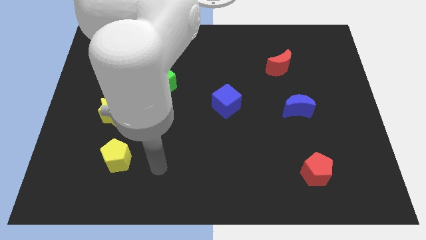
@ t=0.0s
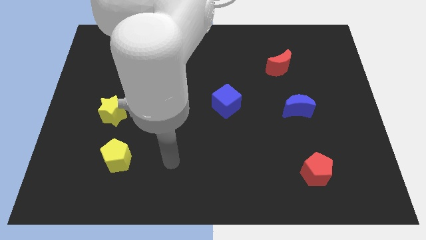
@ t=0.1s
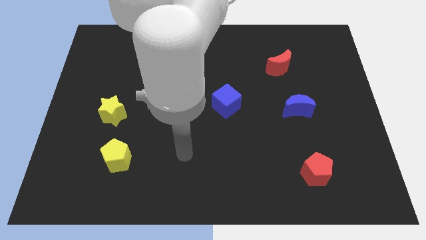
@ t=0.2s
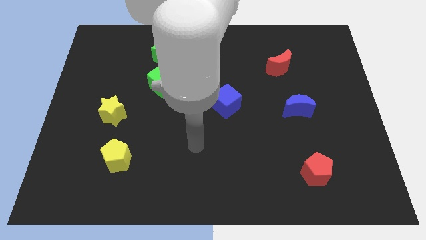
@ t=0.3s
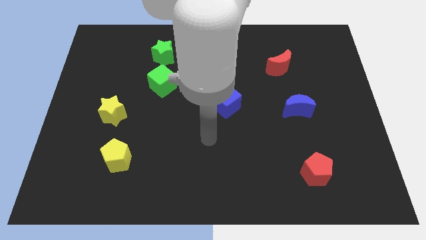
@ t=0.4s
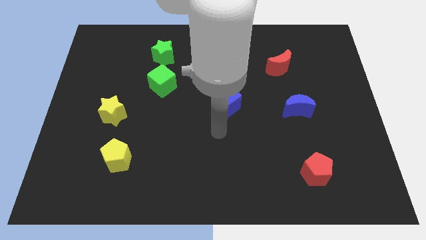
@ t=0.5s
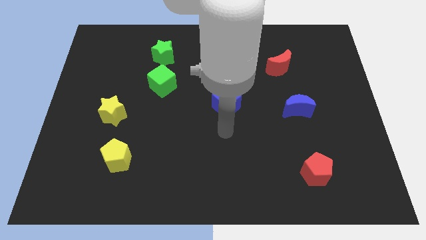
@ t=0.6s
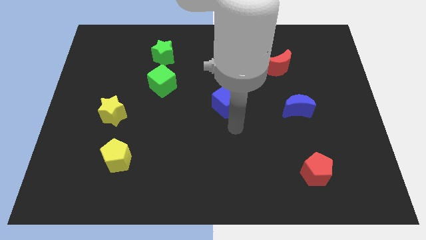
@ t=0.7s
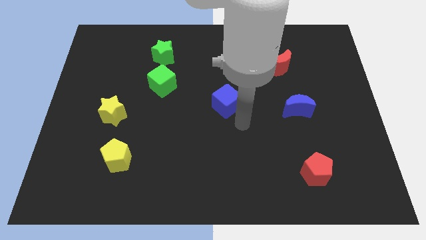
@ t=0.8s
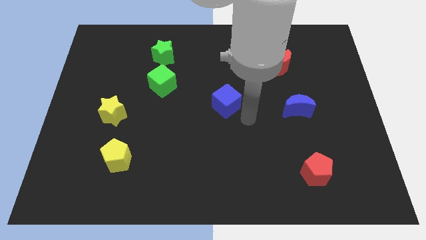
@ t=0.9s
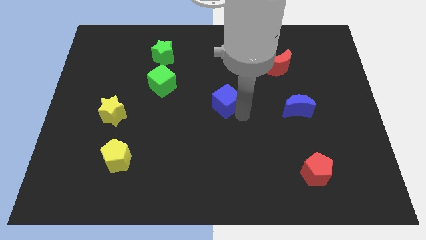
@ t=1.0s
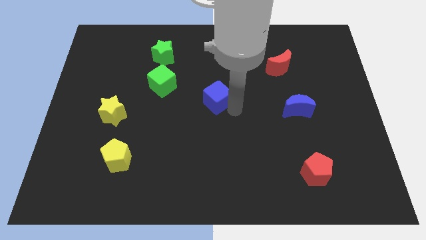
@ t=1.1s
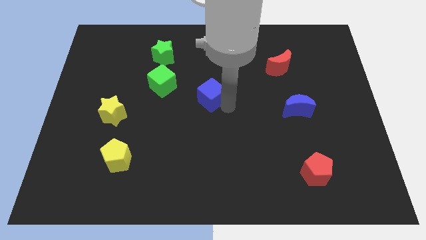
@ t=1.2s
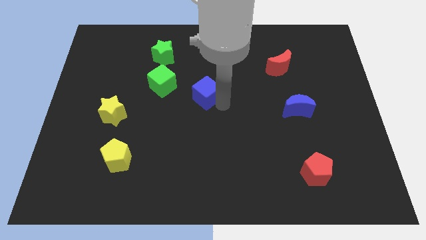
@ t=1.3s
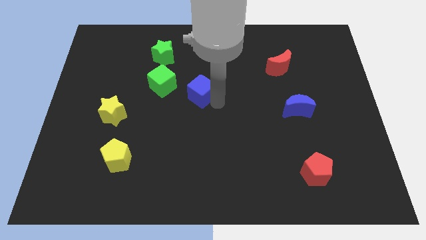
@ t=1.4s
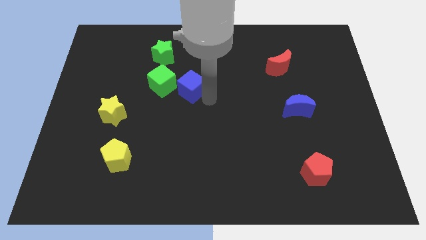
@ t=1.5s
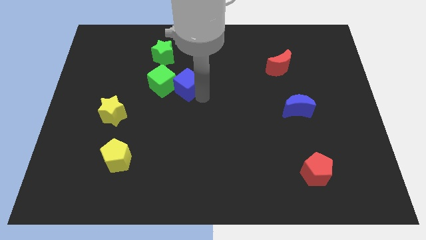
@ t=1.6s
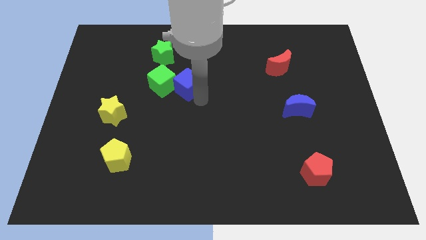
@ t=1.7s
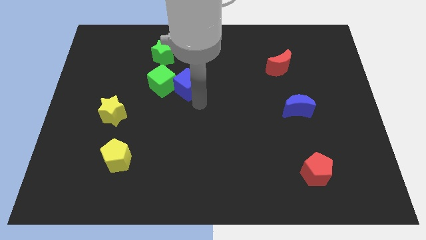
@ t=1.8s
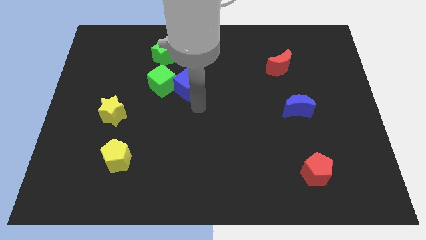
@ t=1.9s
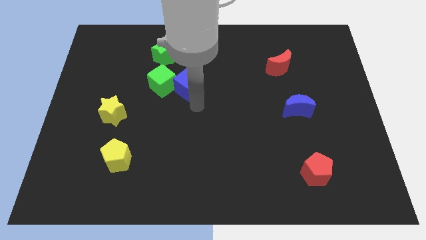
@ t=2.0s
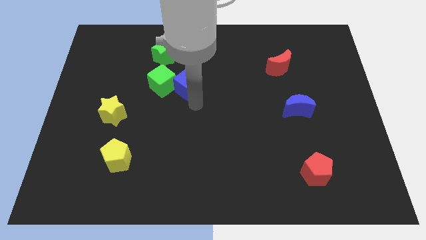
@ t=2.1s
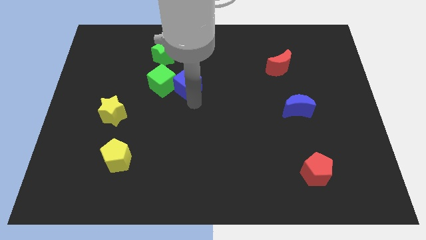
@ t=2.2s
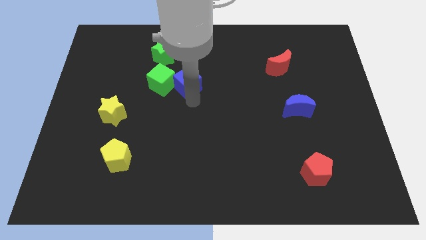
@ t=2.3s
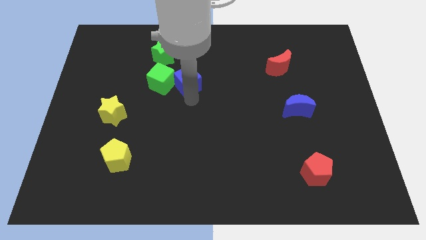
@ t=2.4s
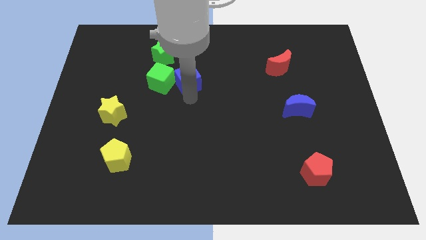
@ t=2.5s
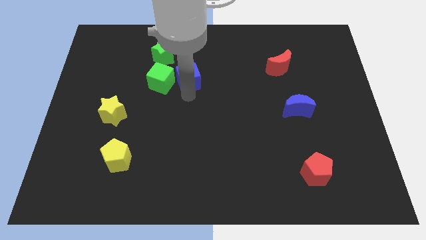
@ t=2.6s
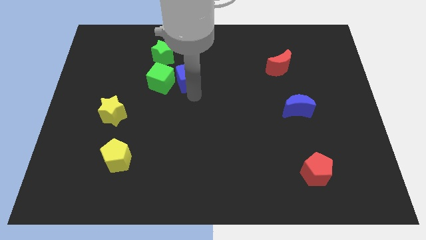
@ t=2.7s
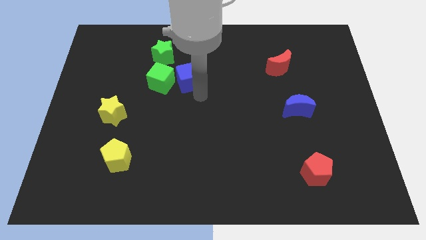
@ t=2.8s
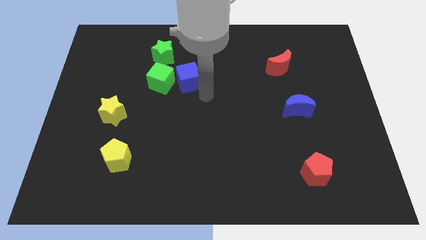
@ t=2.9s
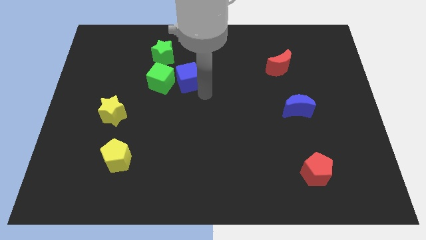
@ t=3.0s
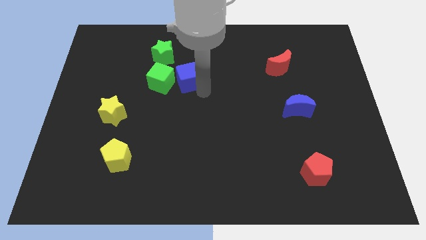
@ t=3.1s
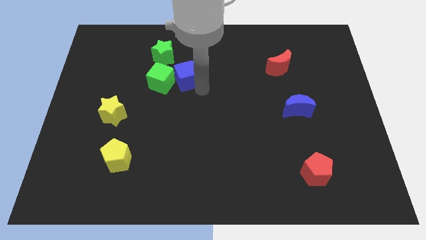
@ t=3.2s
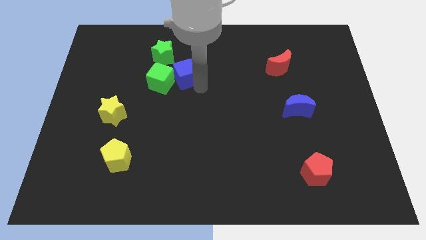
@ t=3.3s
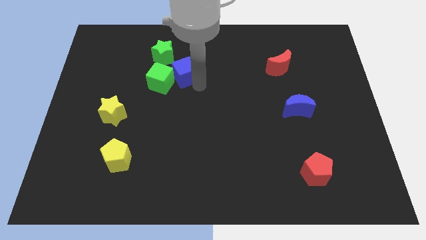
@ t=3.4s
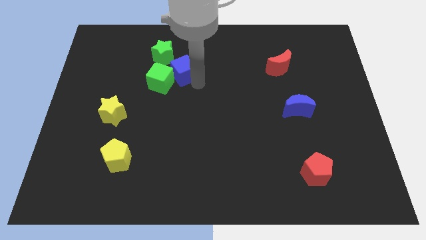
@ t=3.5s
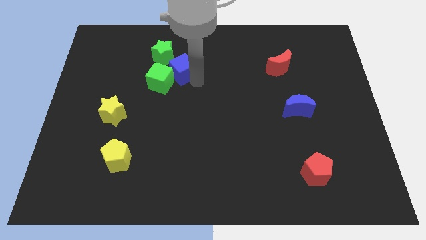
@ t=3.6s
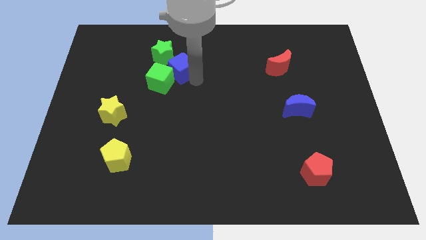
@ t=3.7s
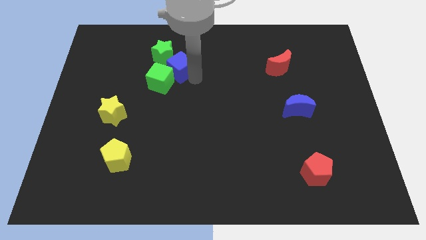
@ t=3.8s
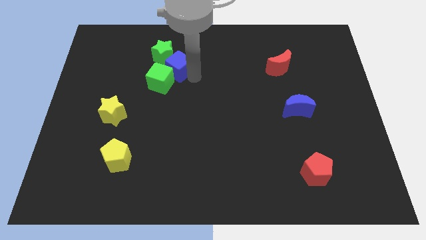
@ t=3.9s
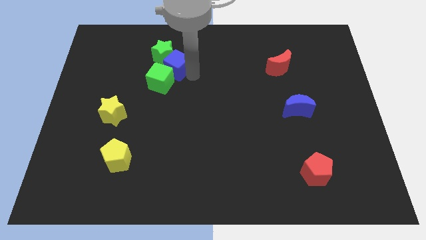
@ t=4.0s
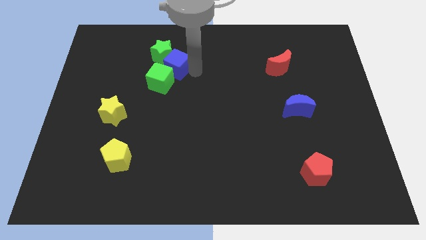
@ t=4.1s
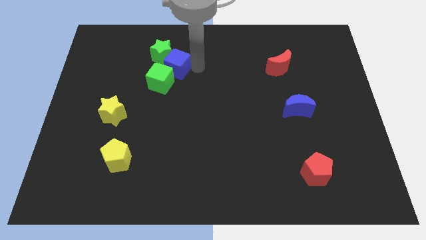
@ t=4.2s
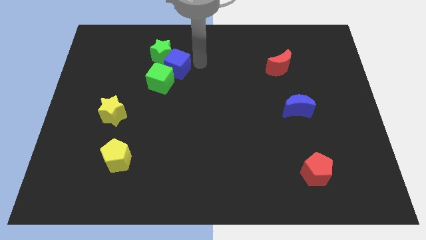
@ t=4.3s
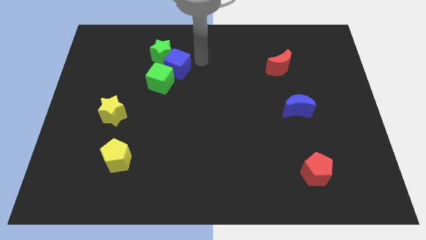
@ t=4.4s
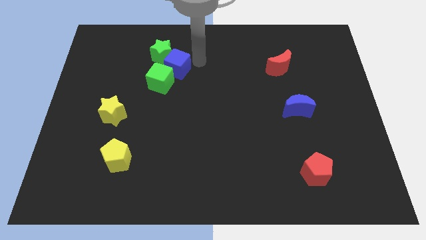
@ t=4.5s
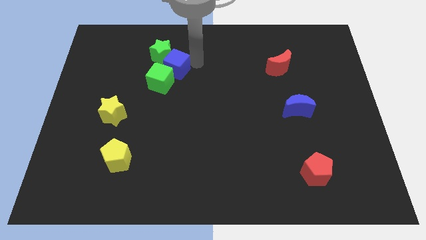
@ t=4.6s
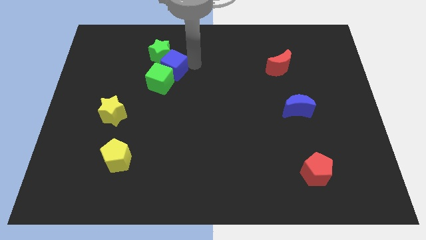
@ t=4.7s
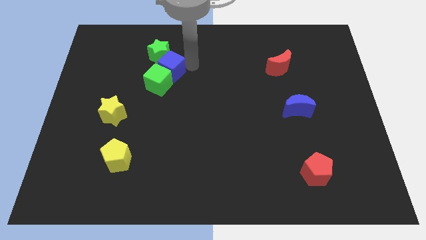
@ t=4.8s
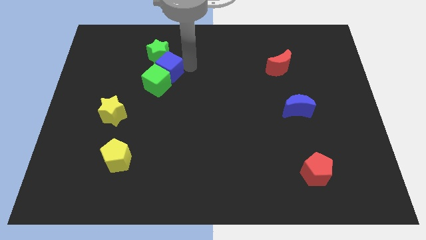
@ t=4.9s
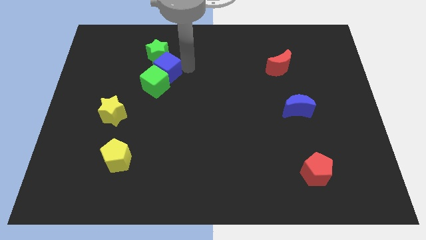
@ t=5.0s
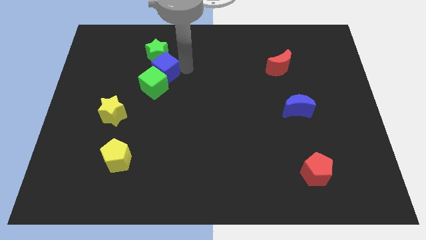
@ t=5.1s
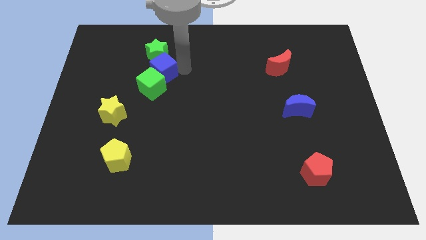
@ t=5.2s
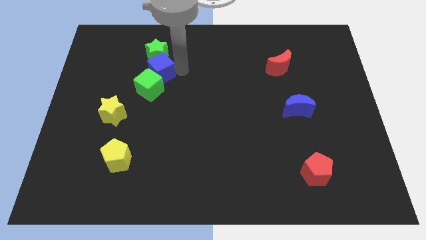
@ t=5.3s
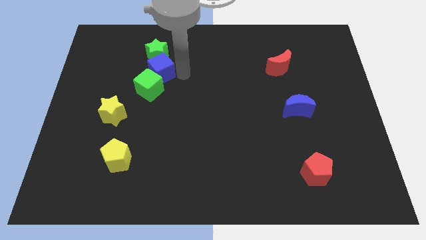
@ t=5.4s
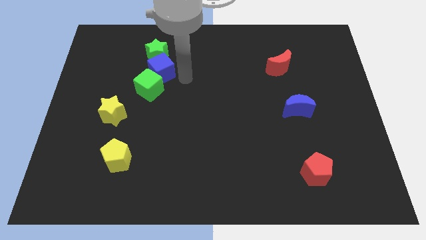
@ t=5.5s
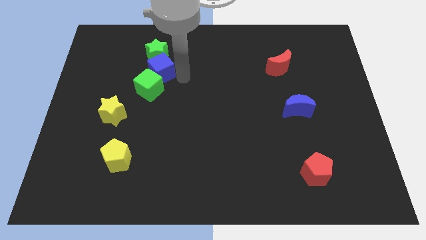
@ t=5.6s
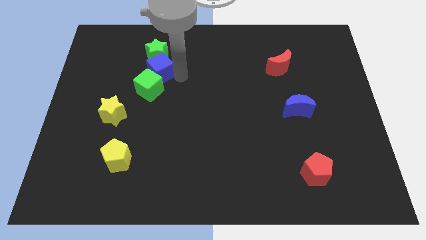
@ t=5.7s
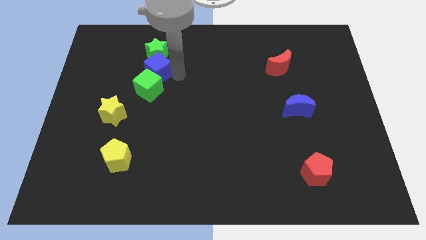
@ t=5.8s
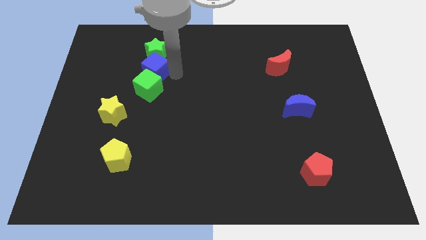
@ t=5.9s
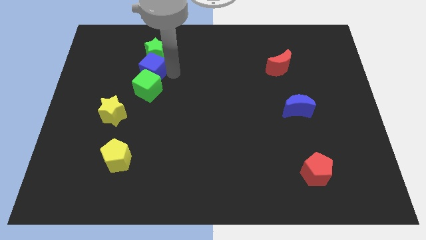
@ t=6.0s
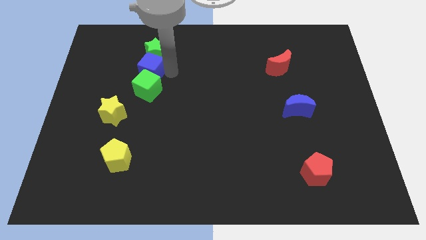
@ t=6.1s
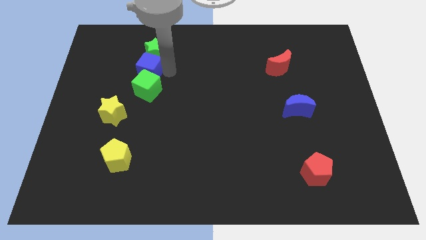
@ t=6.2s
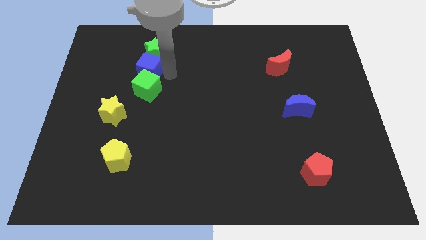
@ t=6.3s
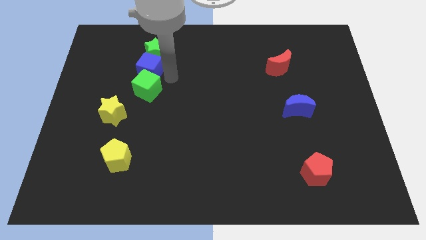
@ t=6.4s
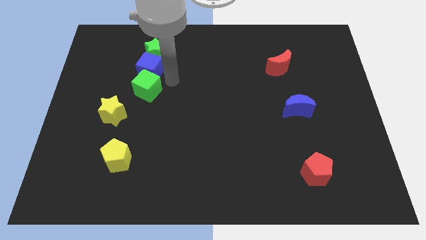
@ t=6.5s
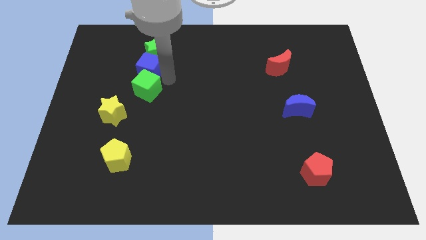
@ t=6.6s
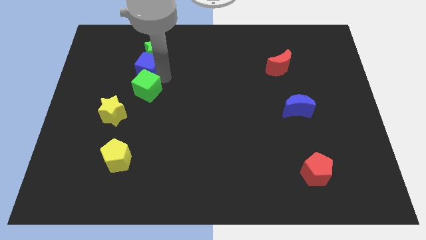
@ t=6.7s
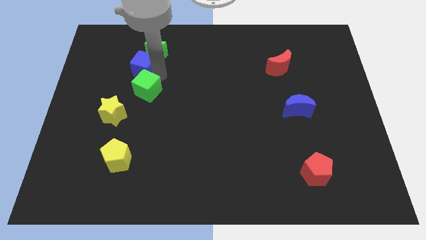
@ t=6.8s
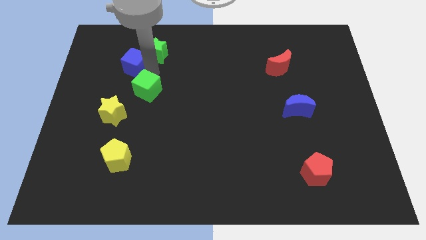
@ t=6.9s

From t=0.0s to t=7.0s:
move the blue cube to the left side of the green star
